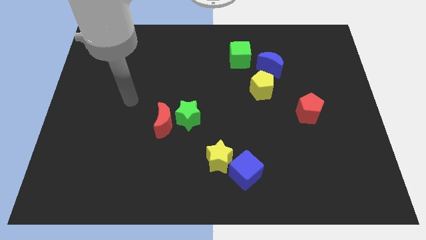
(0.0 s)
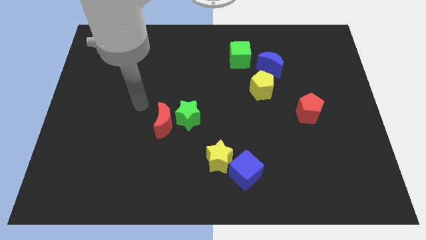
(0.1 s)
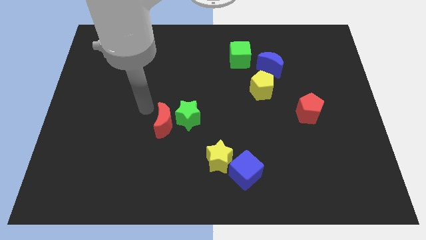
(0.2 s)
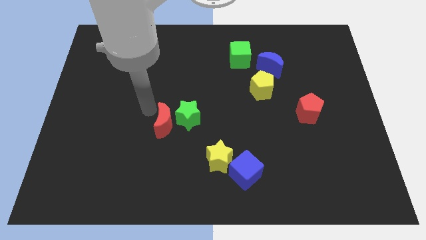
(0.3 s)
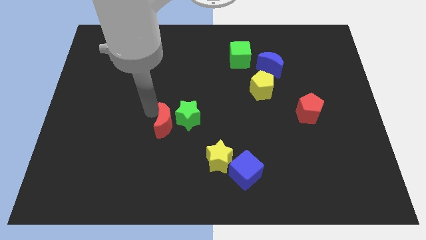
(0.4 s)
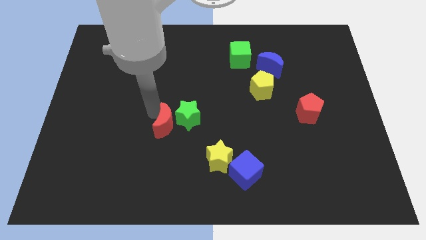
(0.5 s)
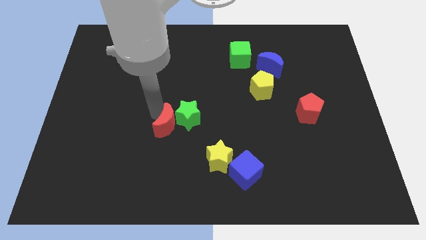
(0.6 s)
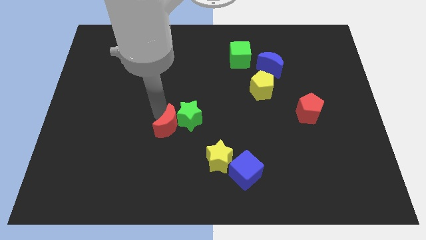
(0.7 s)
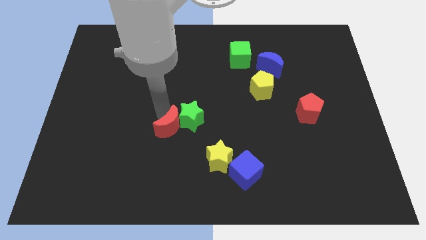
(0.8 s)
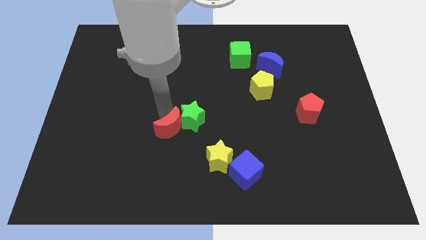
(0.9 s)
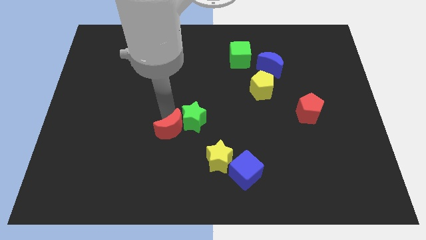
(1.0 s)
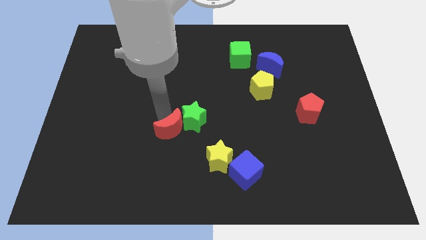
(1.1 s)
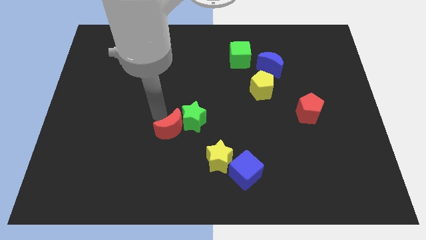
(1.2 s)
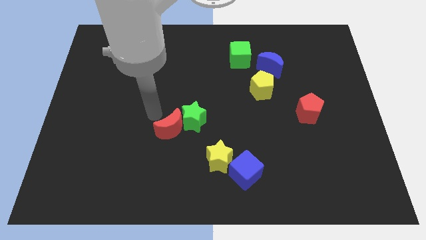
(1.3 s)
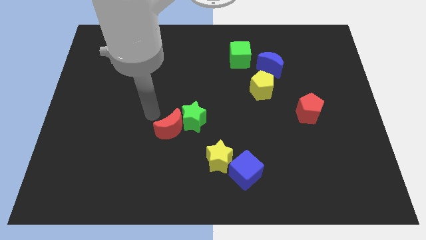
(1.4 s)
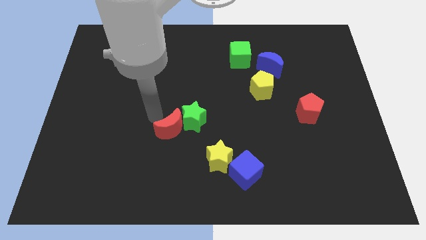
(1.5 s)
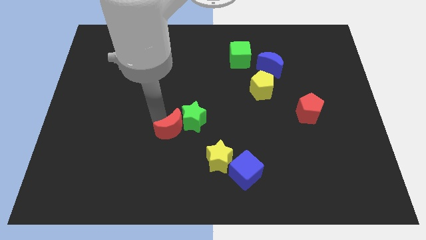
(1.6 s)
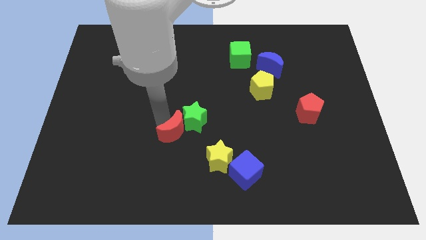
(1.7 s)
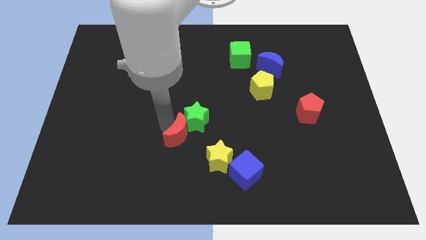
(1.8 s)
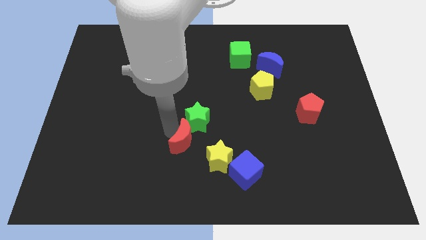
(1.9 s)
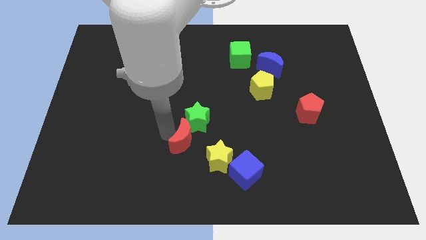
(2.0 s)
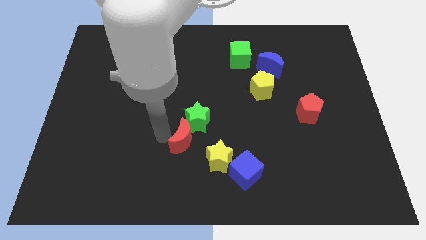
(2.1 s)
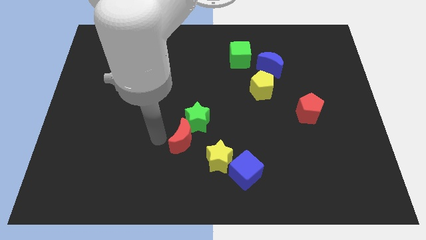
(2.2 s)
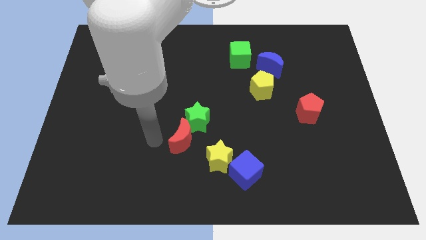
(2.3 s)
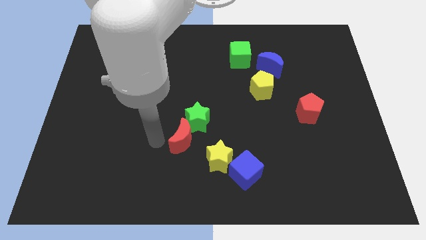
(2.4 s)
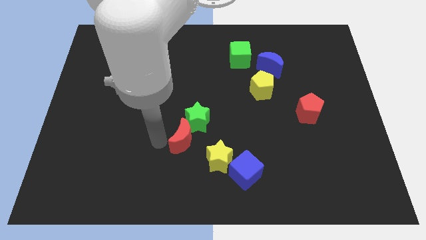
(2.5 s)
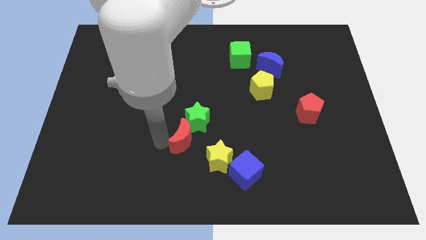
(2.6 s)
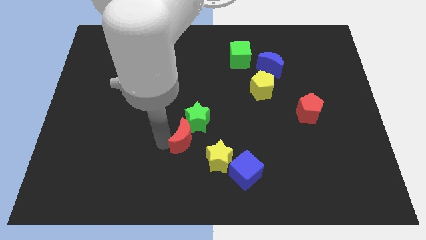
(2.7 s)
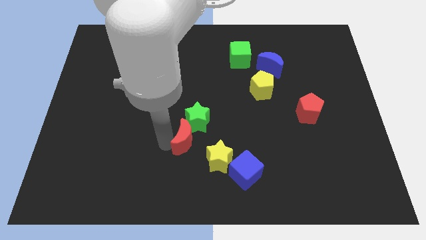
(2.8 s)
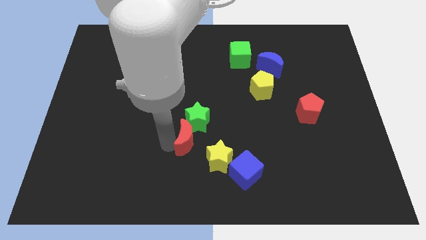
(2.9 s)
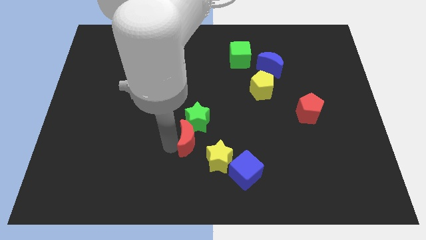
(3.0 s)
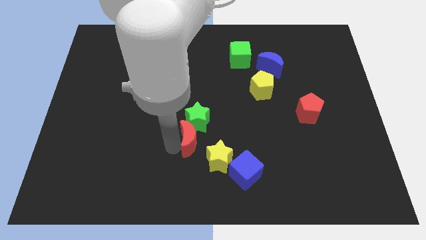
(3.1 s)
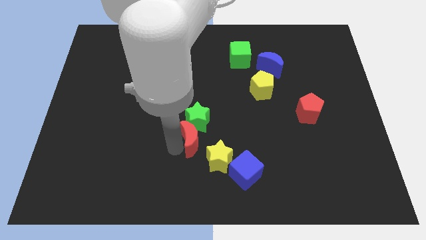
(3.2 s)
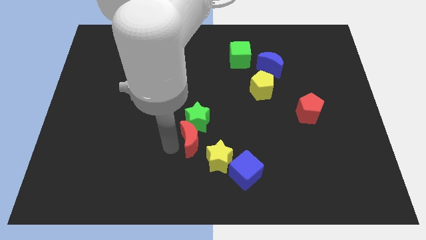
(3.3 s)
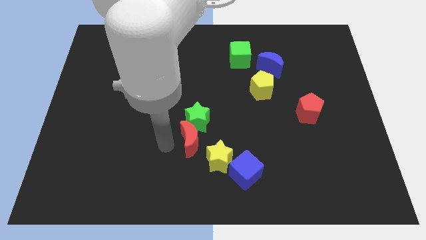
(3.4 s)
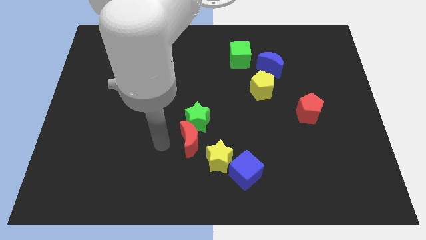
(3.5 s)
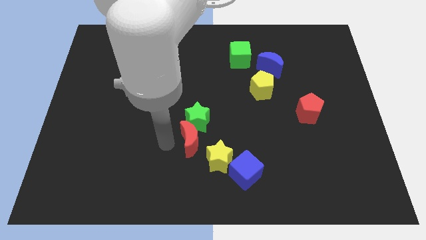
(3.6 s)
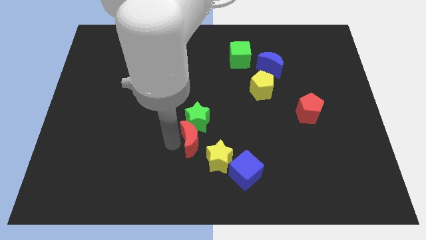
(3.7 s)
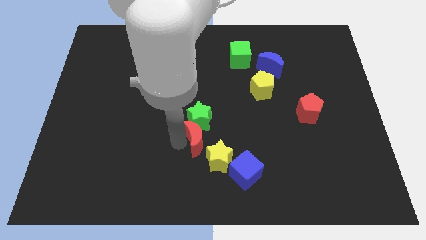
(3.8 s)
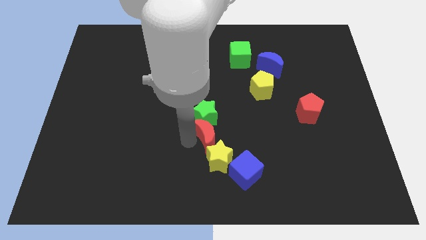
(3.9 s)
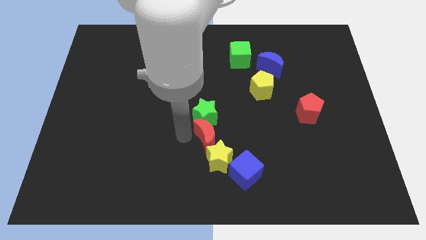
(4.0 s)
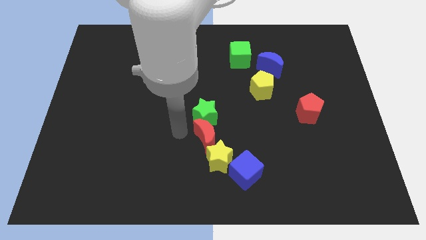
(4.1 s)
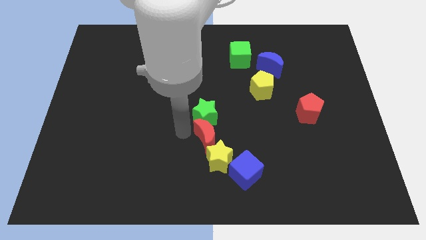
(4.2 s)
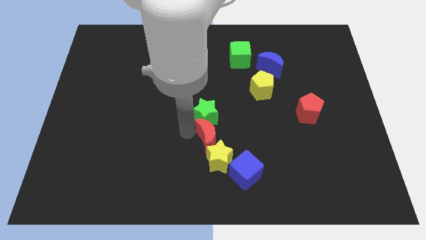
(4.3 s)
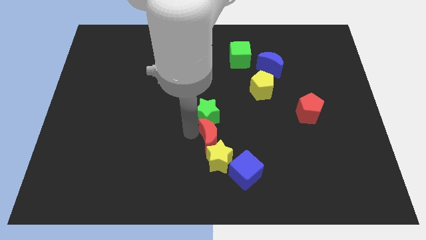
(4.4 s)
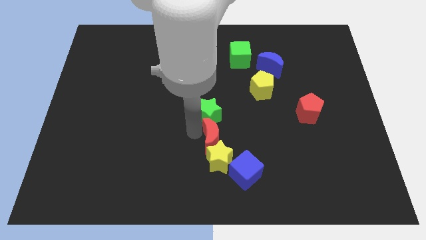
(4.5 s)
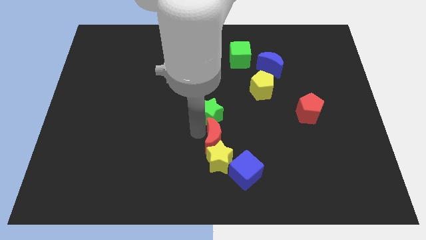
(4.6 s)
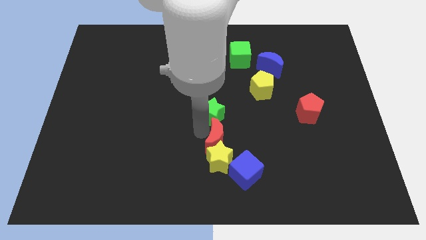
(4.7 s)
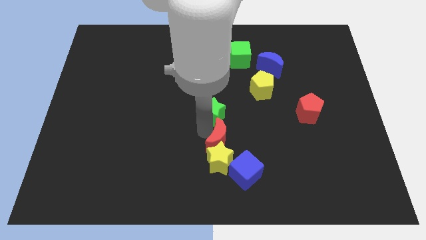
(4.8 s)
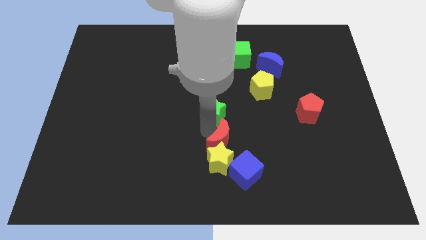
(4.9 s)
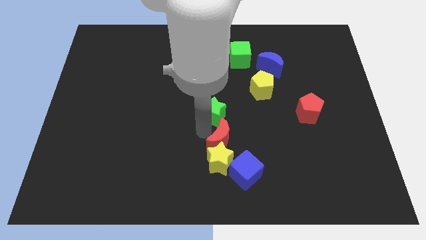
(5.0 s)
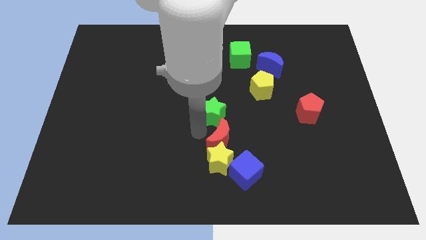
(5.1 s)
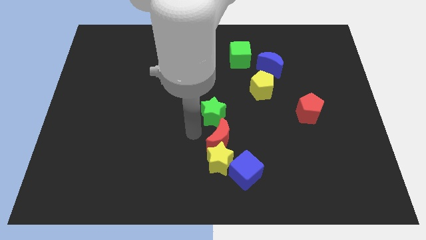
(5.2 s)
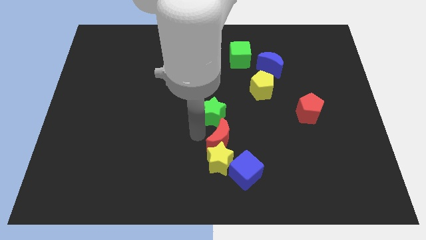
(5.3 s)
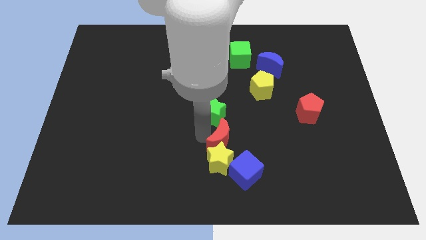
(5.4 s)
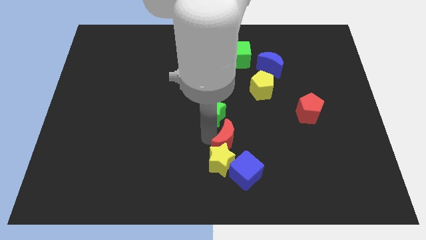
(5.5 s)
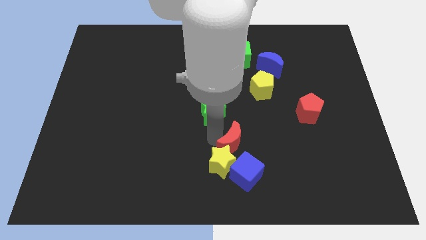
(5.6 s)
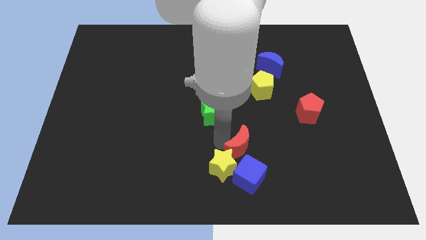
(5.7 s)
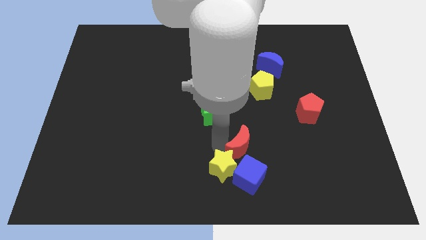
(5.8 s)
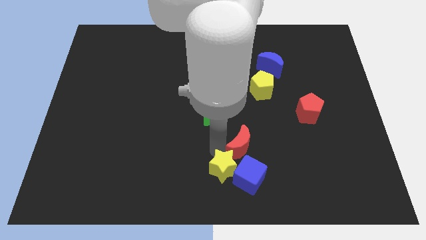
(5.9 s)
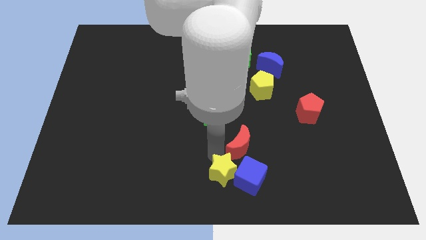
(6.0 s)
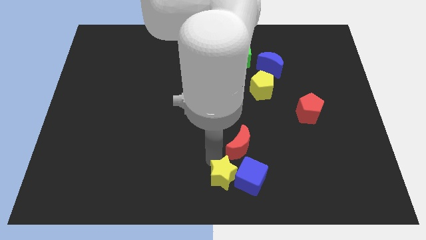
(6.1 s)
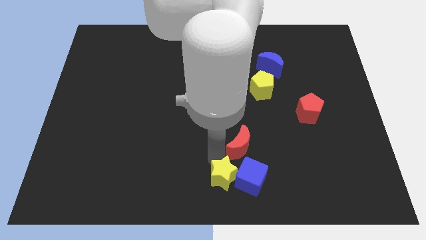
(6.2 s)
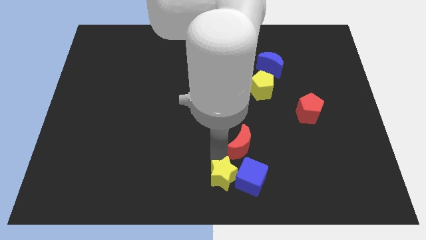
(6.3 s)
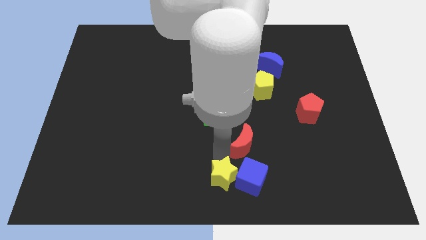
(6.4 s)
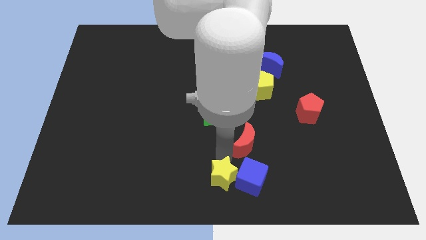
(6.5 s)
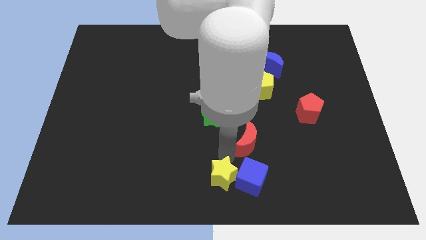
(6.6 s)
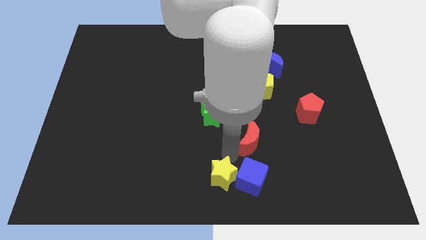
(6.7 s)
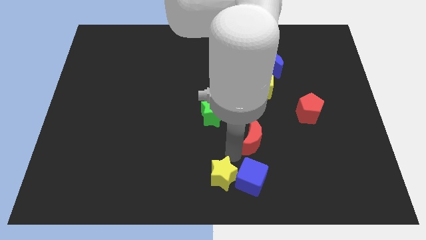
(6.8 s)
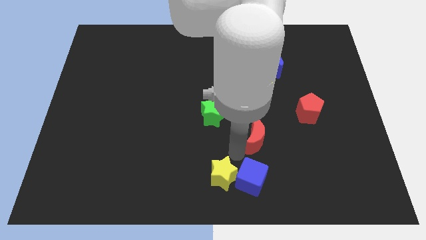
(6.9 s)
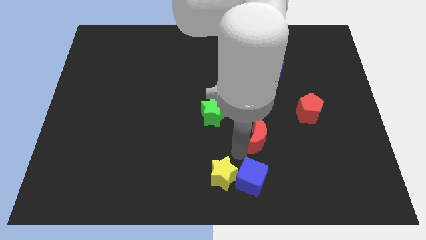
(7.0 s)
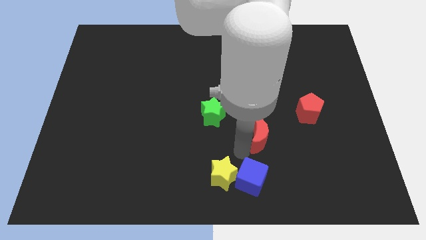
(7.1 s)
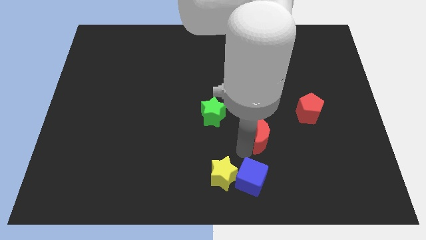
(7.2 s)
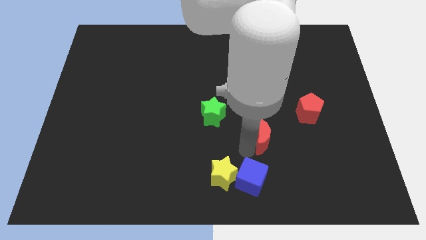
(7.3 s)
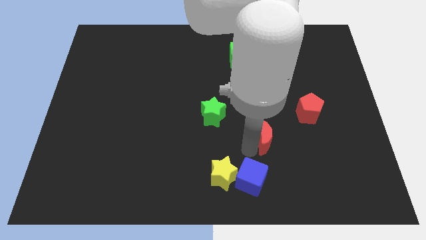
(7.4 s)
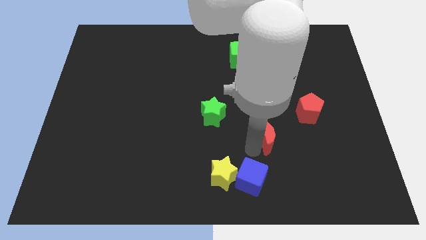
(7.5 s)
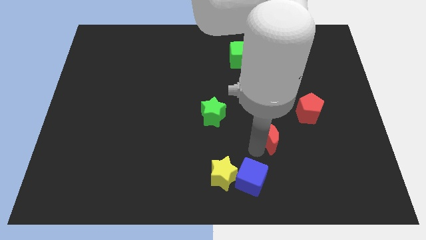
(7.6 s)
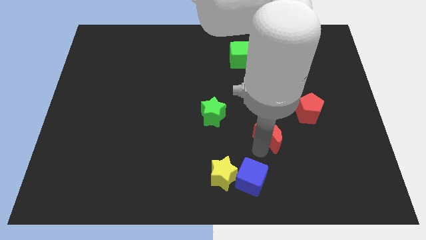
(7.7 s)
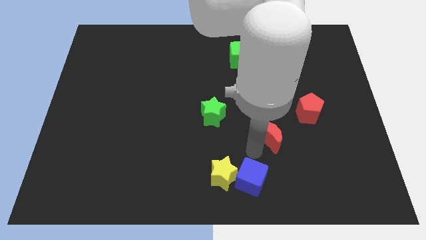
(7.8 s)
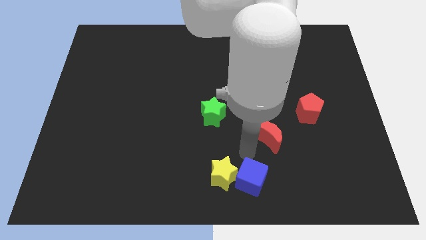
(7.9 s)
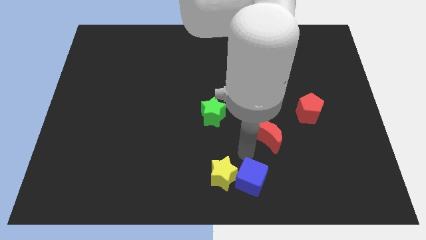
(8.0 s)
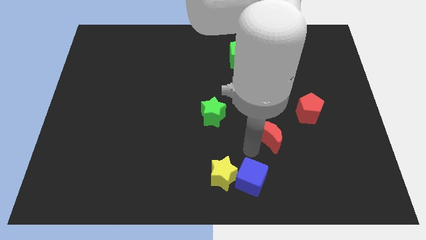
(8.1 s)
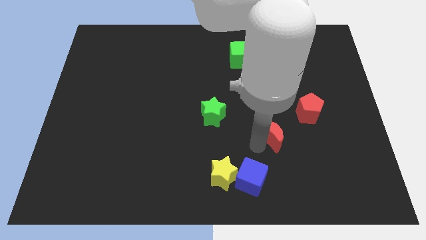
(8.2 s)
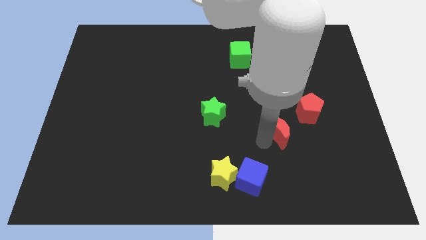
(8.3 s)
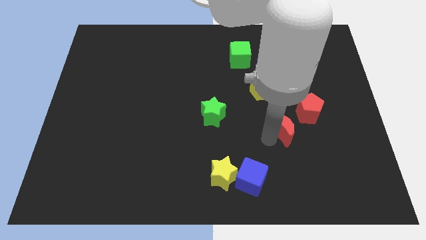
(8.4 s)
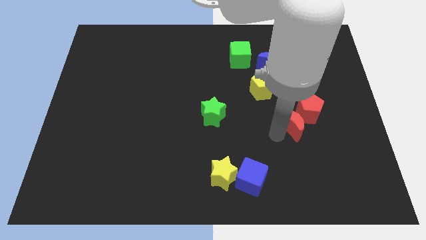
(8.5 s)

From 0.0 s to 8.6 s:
slide the red moon towards the red pentagon
